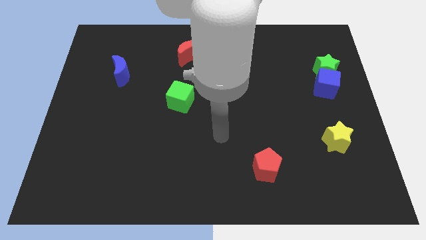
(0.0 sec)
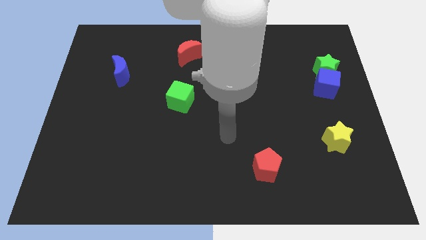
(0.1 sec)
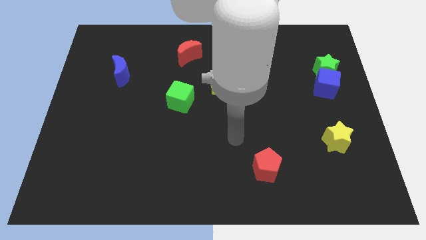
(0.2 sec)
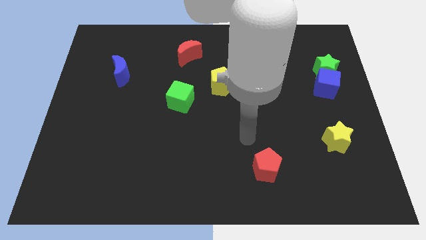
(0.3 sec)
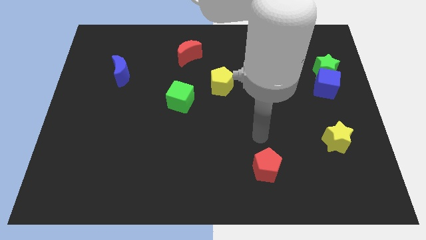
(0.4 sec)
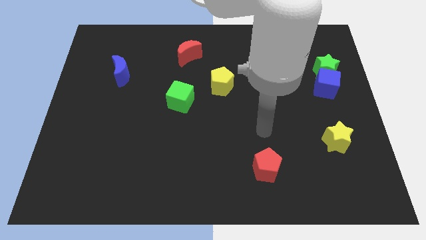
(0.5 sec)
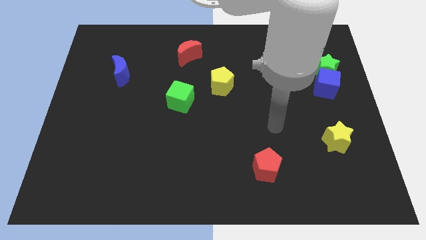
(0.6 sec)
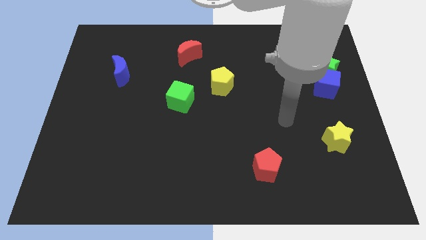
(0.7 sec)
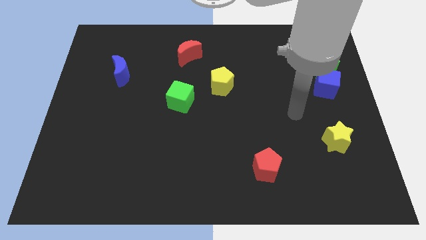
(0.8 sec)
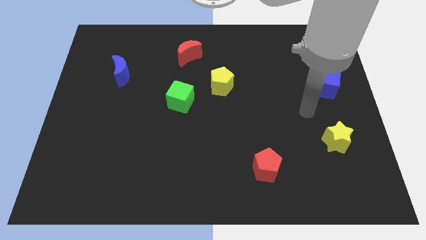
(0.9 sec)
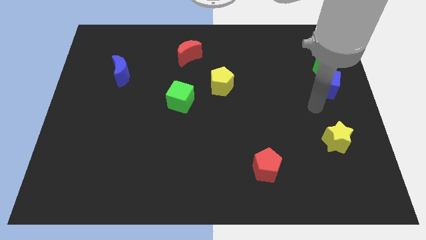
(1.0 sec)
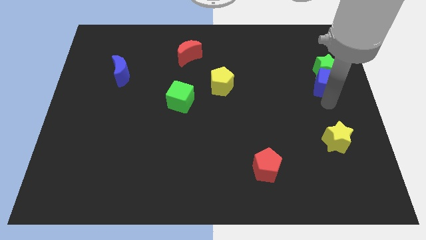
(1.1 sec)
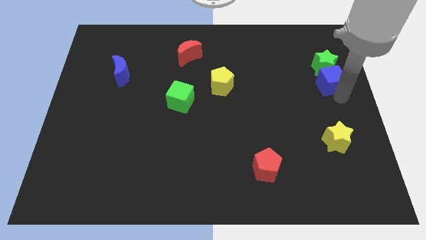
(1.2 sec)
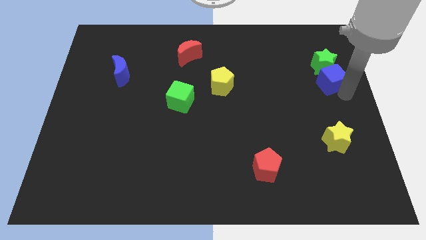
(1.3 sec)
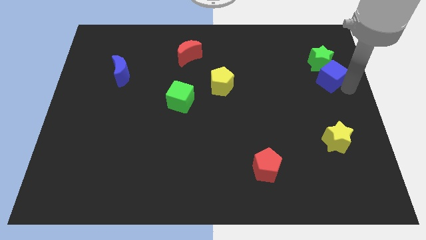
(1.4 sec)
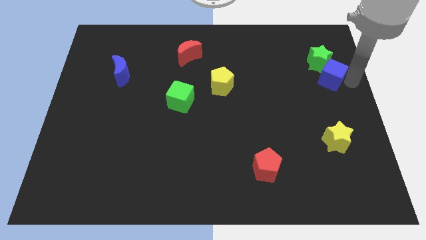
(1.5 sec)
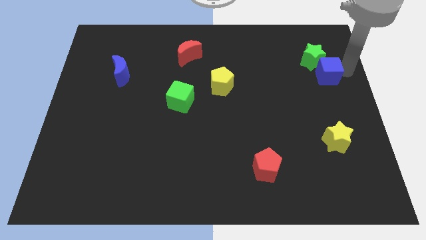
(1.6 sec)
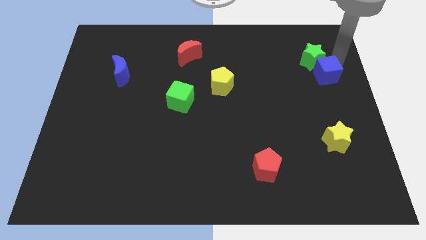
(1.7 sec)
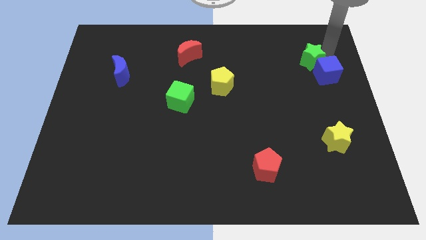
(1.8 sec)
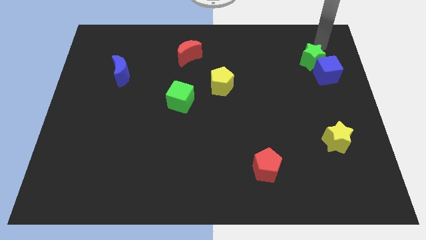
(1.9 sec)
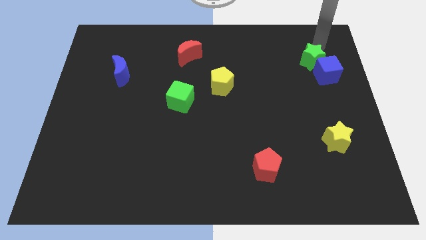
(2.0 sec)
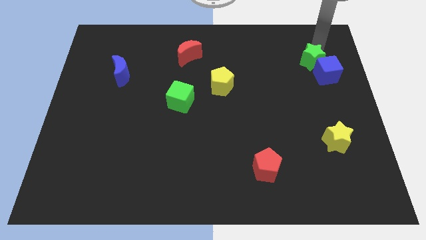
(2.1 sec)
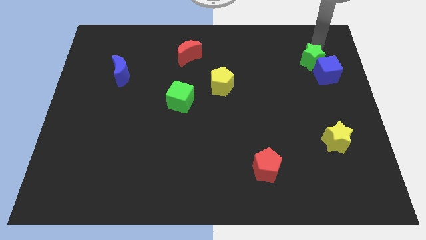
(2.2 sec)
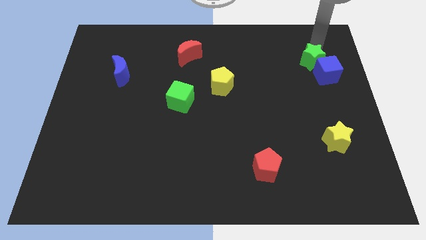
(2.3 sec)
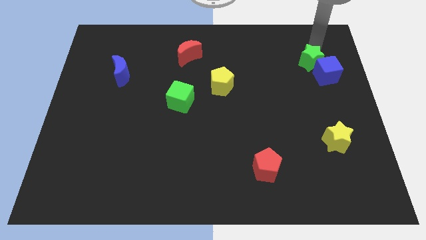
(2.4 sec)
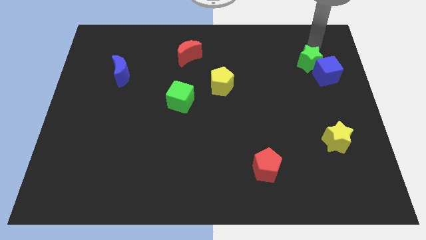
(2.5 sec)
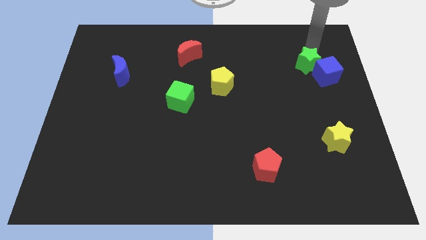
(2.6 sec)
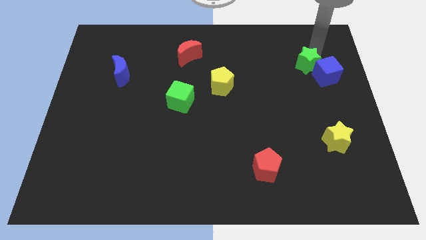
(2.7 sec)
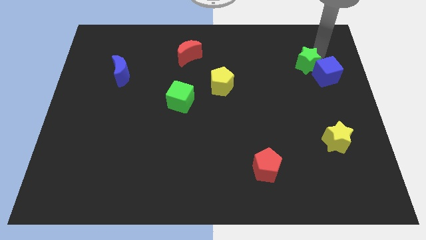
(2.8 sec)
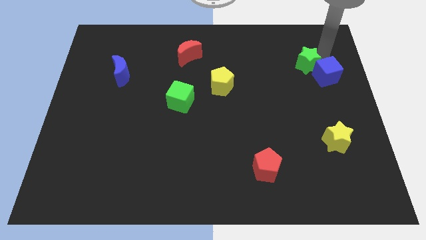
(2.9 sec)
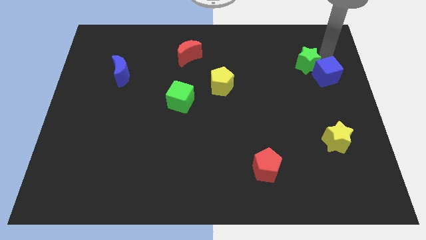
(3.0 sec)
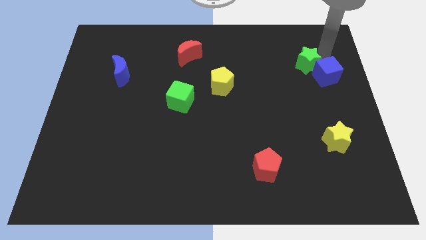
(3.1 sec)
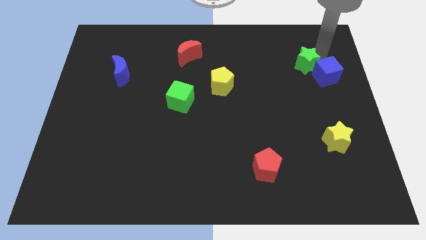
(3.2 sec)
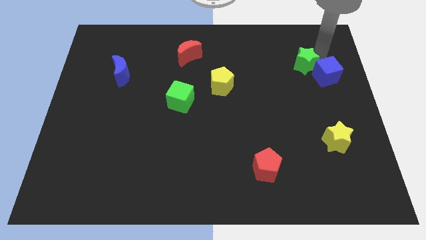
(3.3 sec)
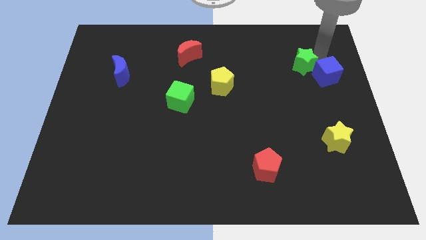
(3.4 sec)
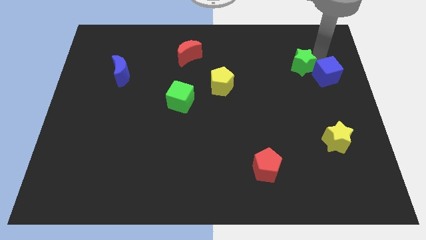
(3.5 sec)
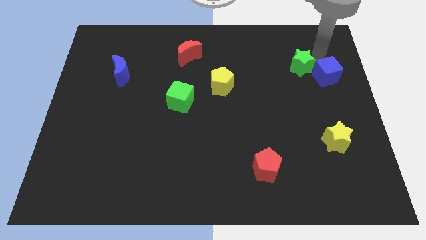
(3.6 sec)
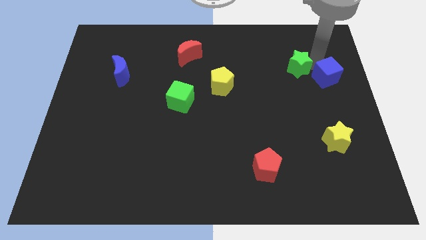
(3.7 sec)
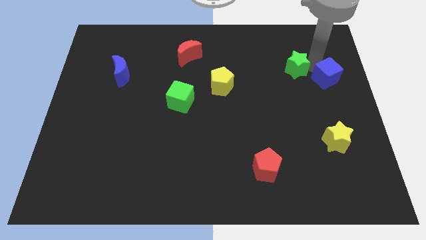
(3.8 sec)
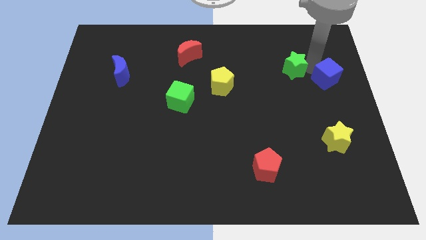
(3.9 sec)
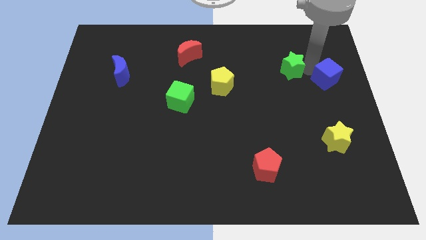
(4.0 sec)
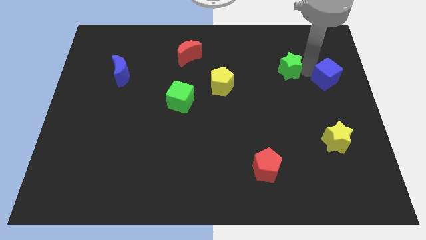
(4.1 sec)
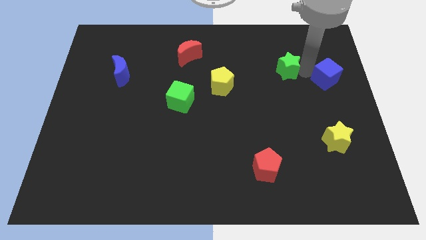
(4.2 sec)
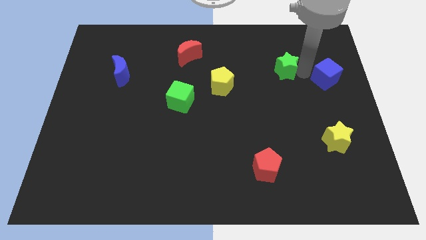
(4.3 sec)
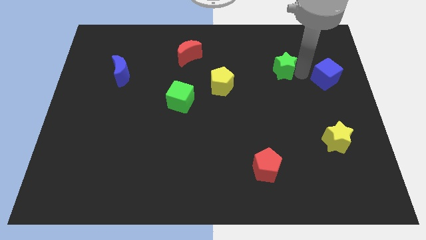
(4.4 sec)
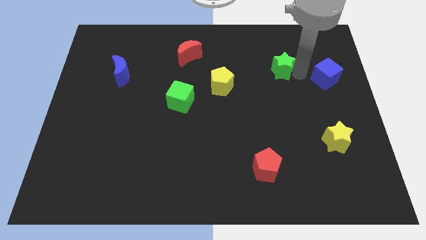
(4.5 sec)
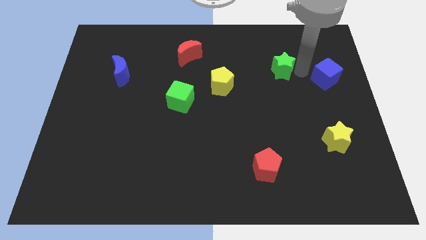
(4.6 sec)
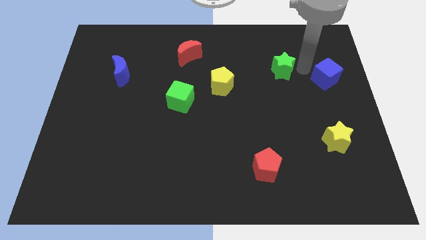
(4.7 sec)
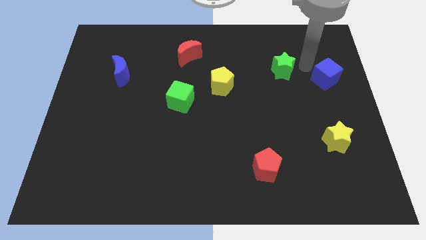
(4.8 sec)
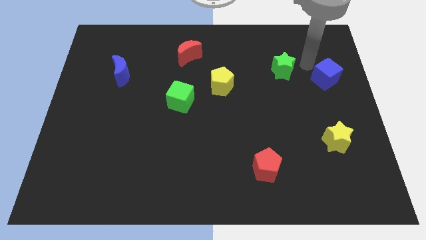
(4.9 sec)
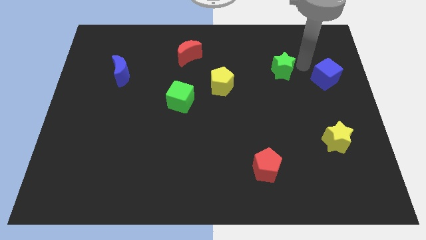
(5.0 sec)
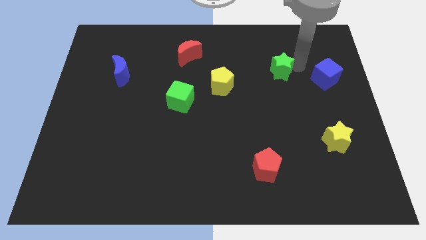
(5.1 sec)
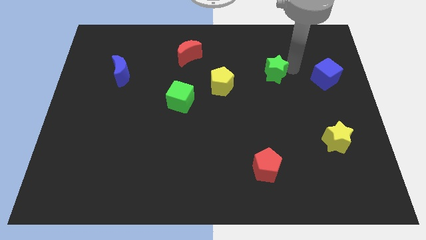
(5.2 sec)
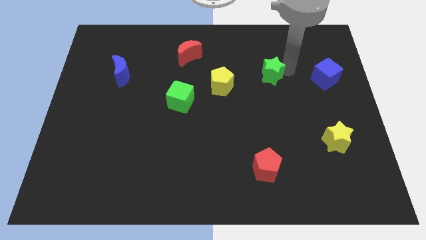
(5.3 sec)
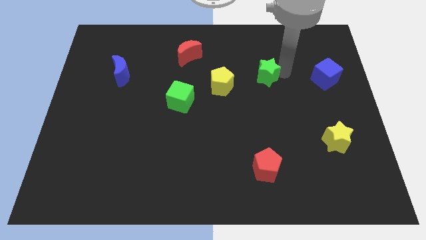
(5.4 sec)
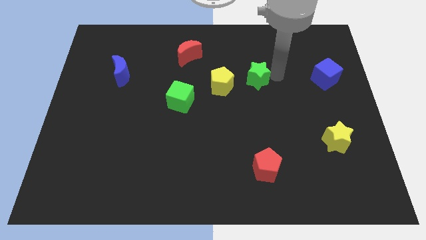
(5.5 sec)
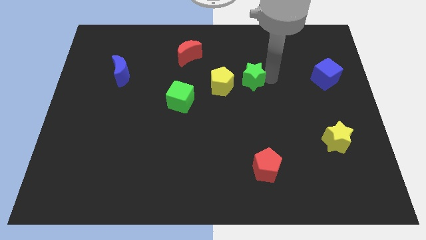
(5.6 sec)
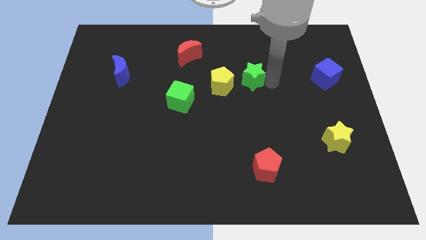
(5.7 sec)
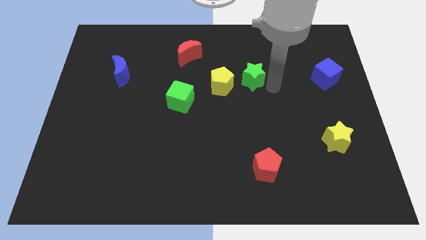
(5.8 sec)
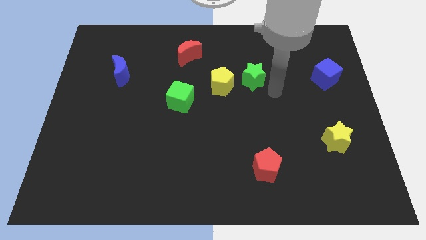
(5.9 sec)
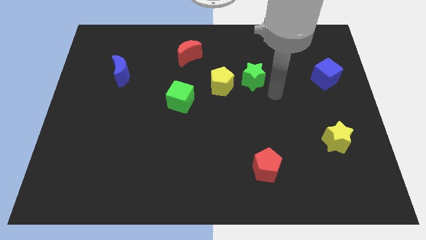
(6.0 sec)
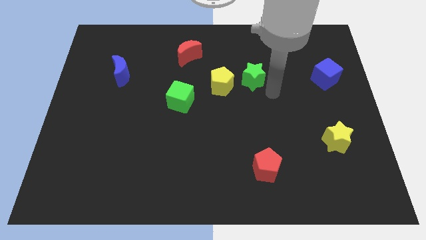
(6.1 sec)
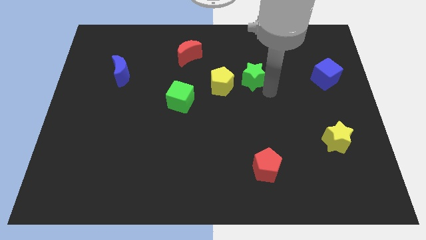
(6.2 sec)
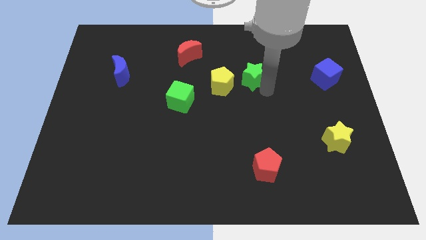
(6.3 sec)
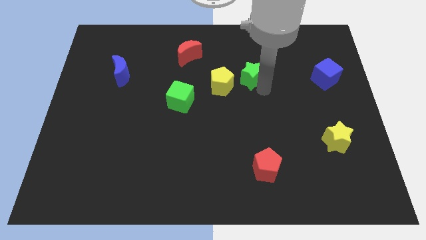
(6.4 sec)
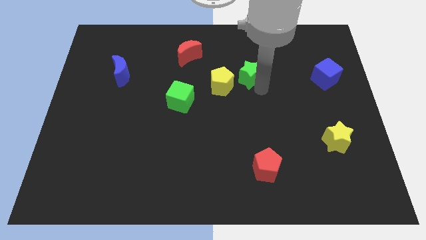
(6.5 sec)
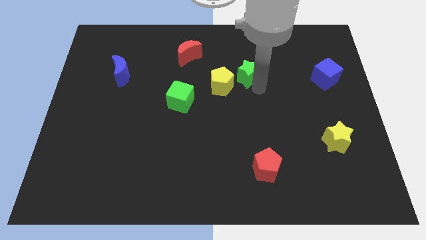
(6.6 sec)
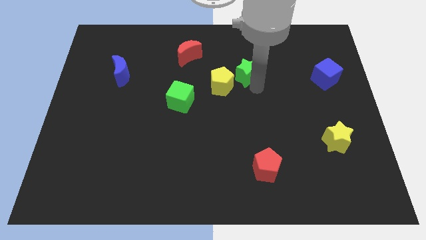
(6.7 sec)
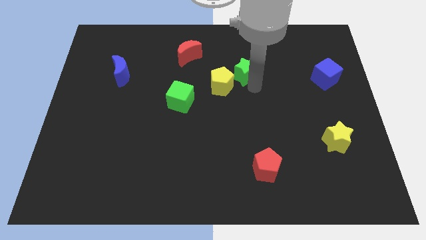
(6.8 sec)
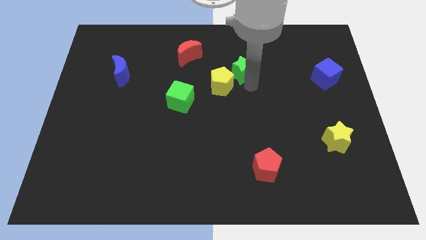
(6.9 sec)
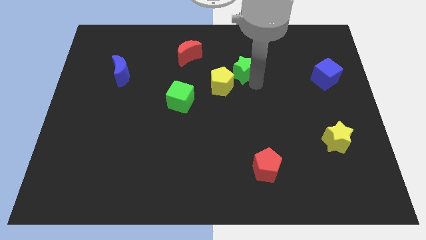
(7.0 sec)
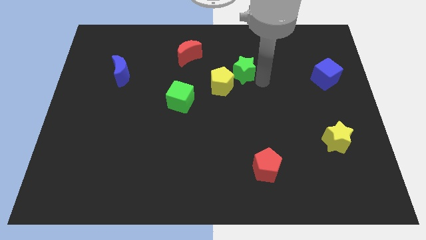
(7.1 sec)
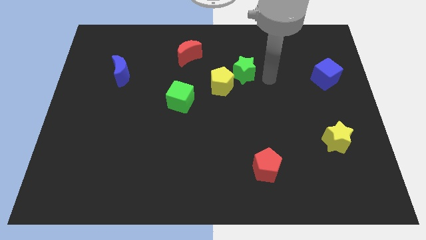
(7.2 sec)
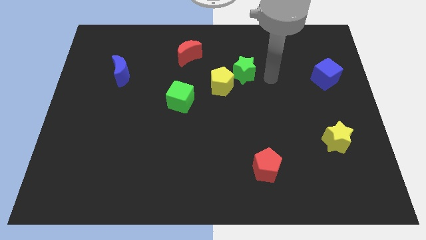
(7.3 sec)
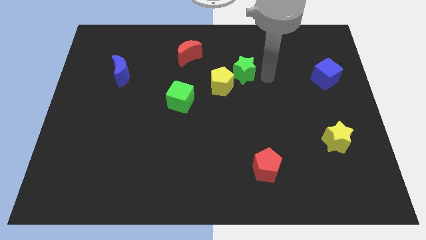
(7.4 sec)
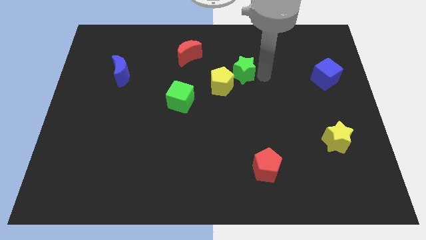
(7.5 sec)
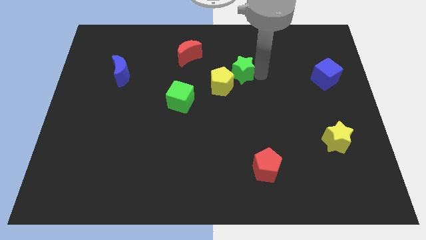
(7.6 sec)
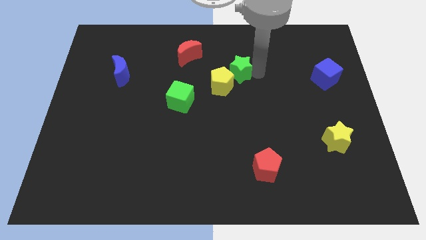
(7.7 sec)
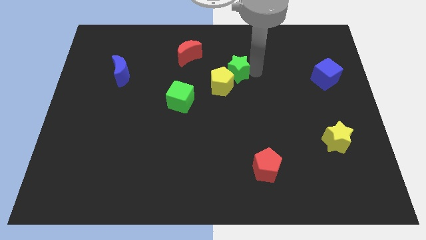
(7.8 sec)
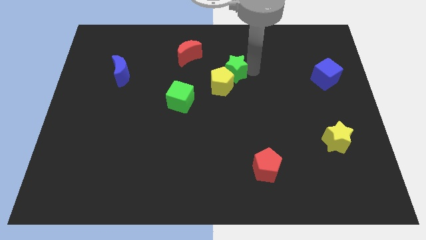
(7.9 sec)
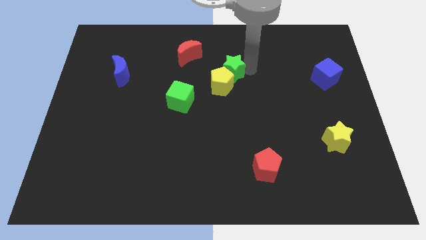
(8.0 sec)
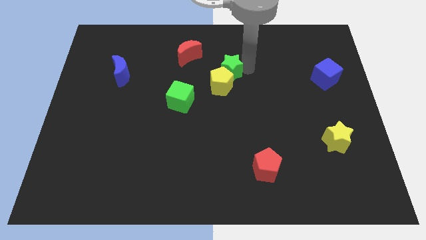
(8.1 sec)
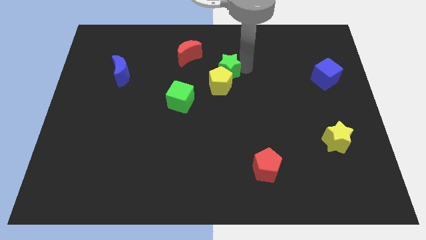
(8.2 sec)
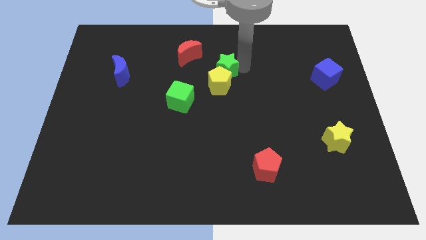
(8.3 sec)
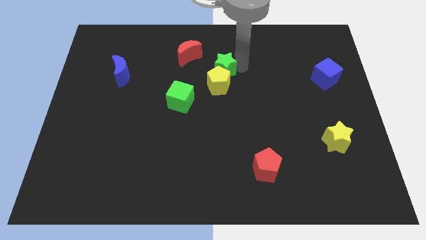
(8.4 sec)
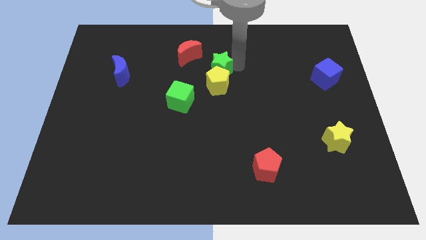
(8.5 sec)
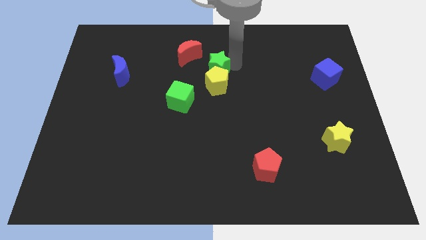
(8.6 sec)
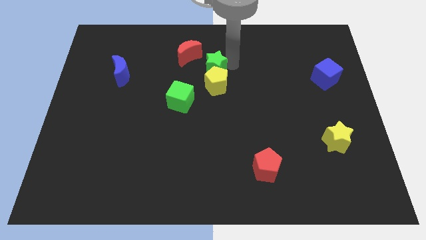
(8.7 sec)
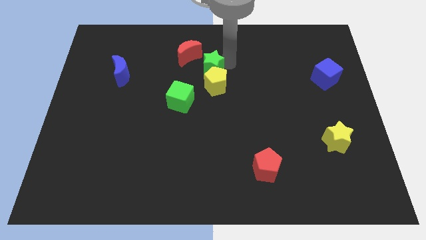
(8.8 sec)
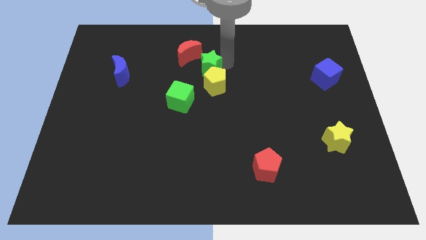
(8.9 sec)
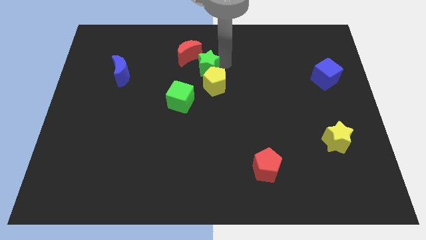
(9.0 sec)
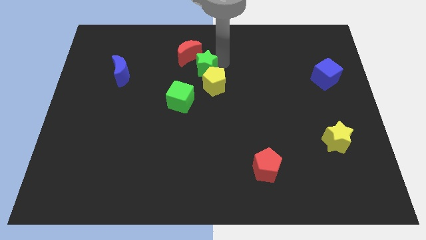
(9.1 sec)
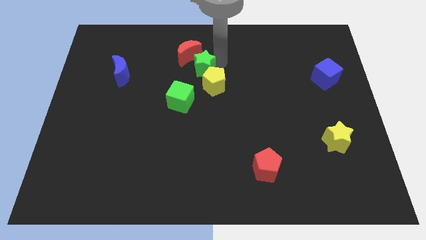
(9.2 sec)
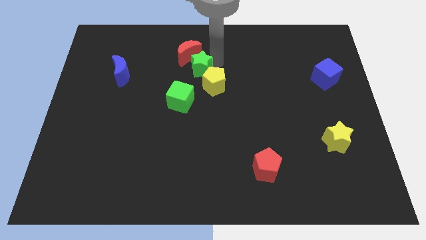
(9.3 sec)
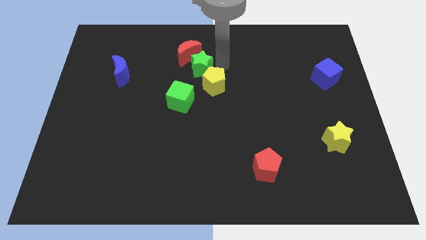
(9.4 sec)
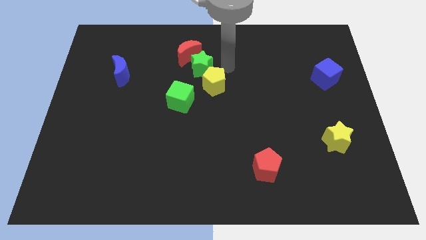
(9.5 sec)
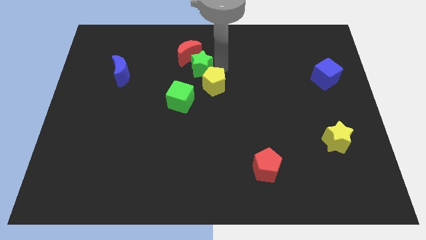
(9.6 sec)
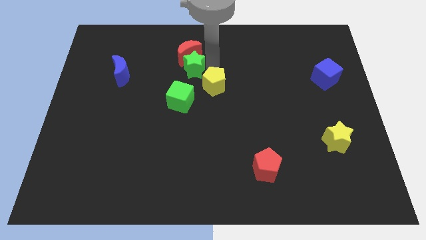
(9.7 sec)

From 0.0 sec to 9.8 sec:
put the green star to the bottom left of the red moon
